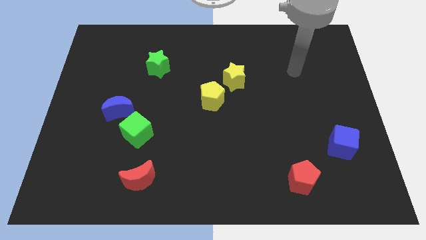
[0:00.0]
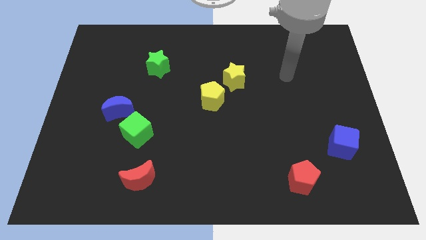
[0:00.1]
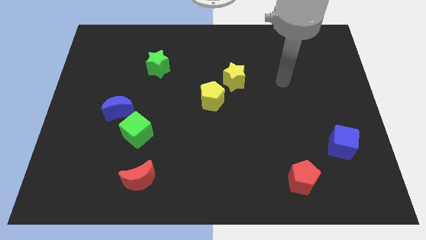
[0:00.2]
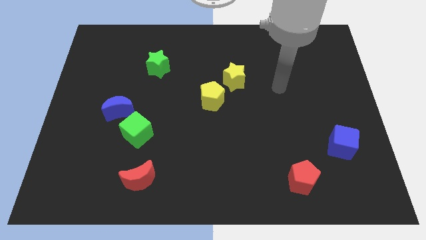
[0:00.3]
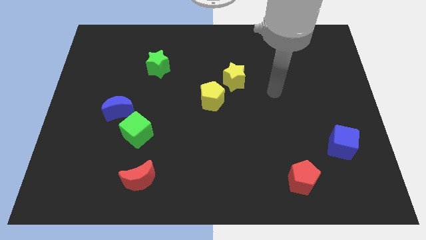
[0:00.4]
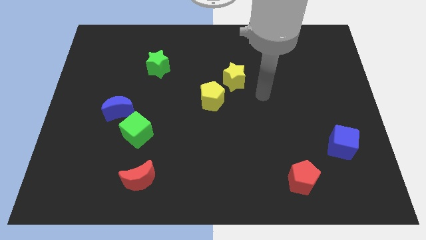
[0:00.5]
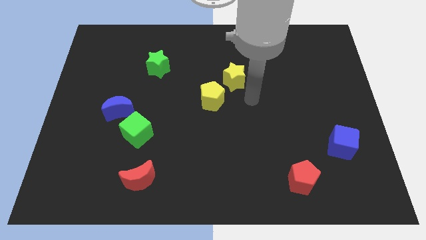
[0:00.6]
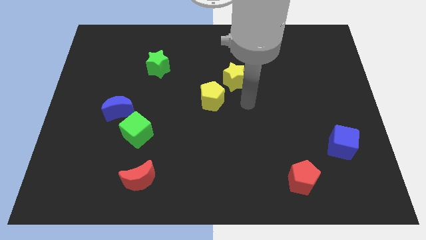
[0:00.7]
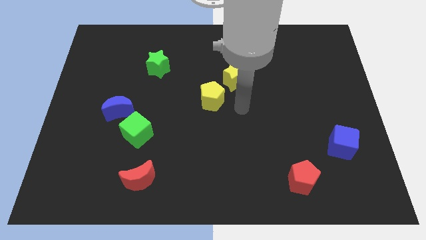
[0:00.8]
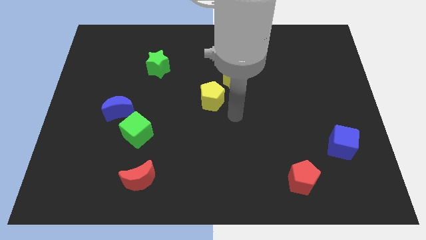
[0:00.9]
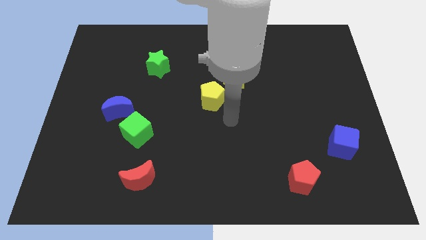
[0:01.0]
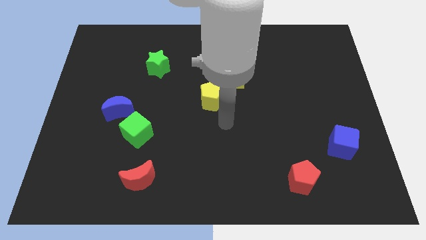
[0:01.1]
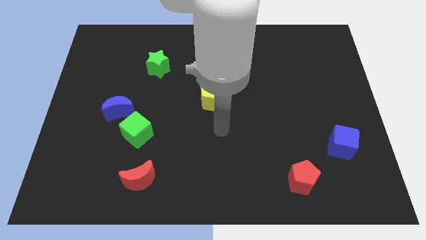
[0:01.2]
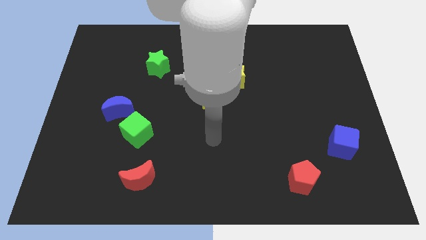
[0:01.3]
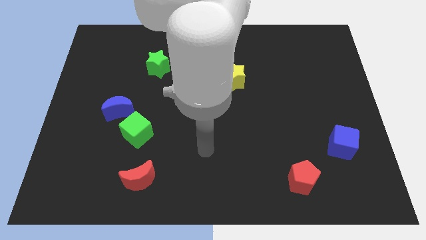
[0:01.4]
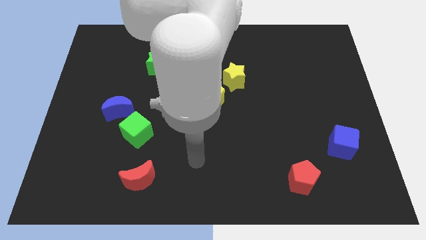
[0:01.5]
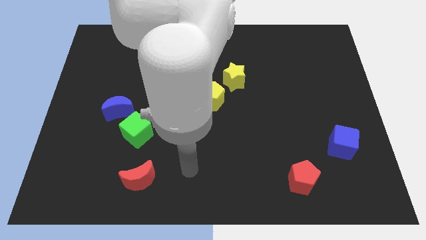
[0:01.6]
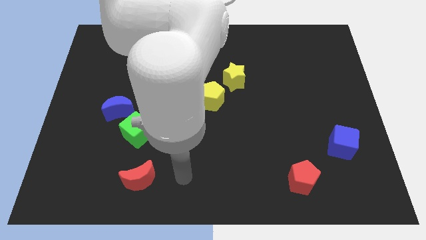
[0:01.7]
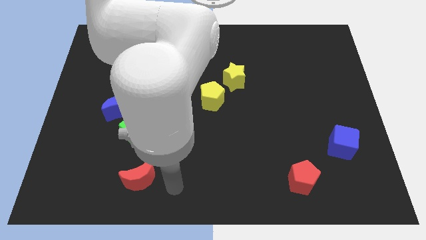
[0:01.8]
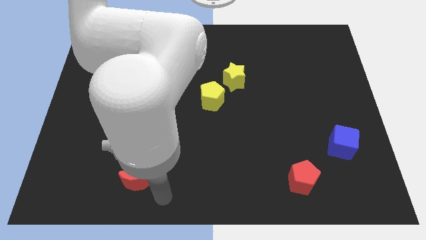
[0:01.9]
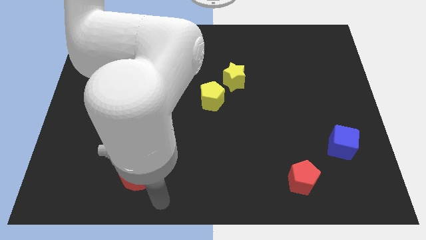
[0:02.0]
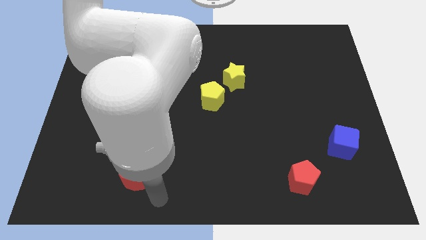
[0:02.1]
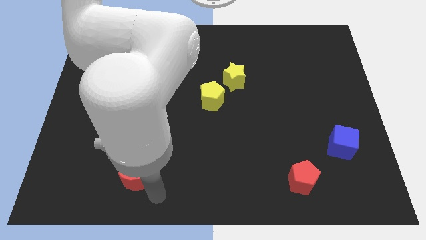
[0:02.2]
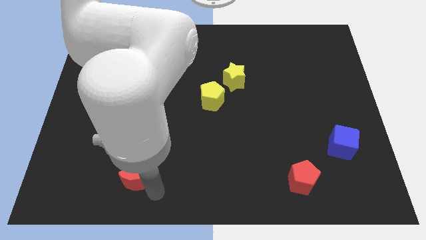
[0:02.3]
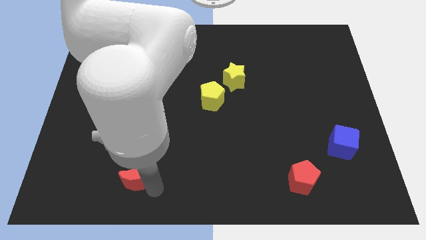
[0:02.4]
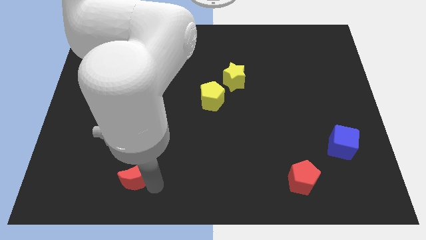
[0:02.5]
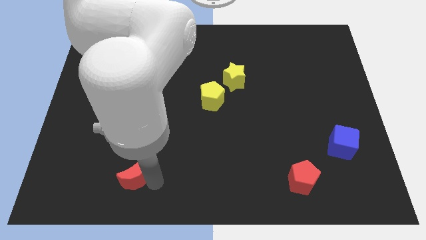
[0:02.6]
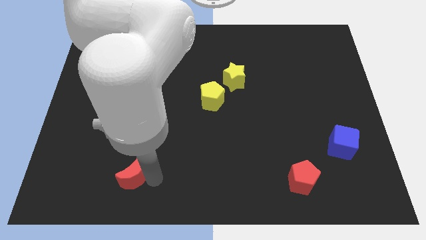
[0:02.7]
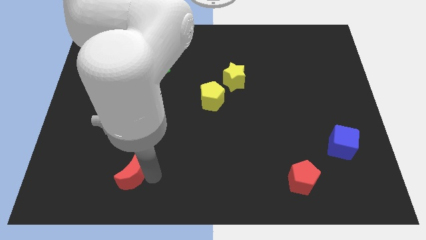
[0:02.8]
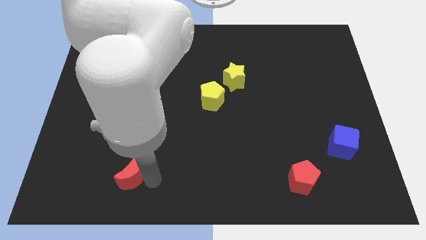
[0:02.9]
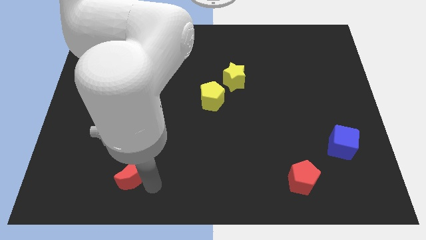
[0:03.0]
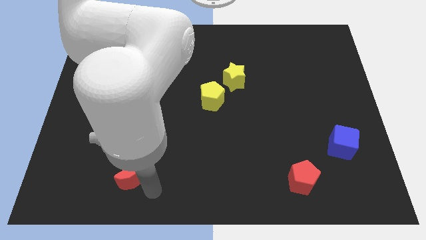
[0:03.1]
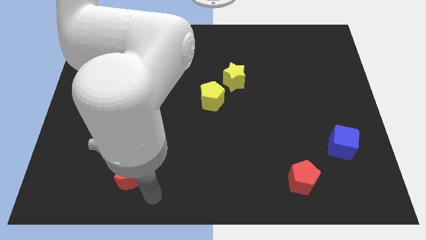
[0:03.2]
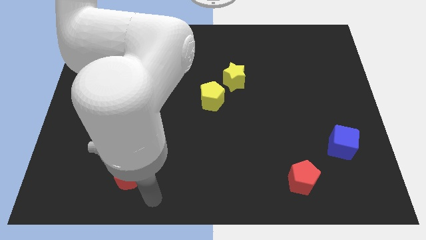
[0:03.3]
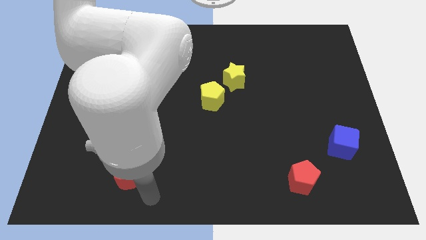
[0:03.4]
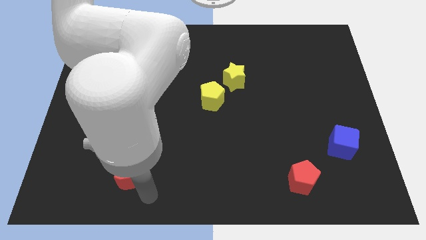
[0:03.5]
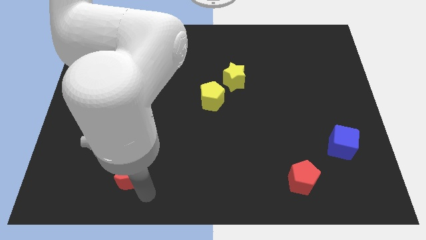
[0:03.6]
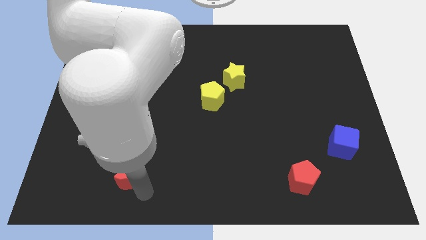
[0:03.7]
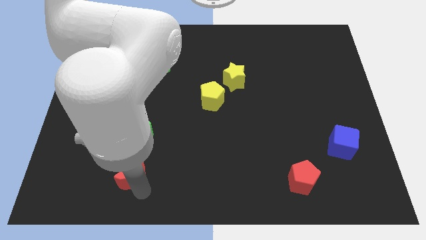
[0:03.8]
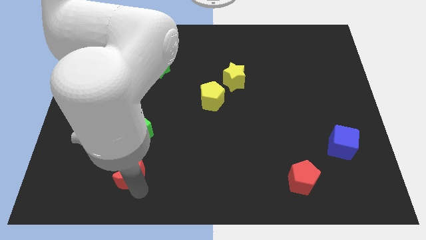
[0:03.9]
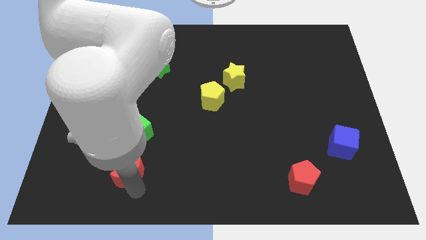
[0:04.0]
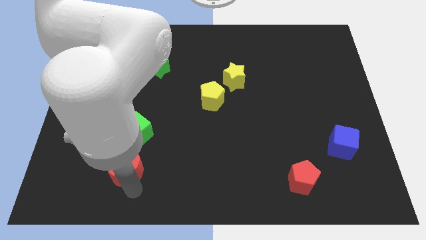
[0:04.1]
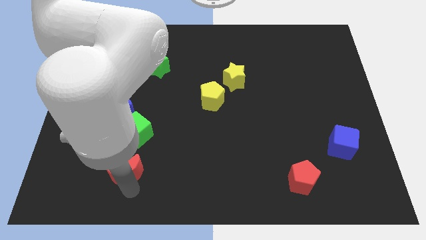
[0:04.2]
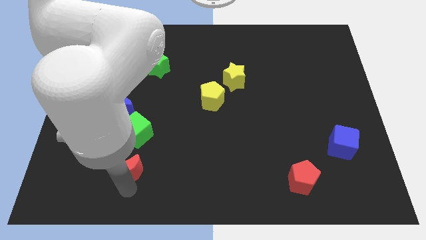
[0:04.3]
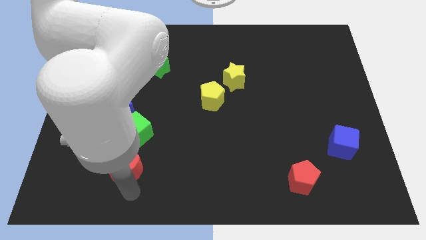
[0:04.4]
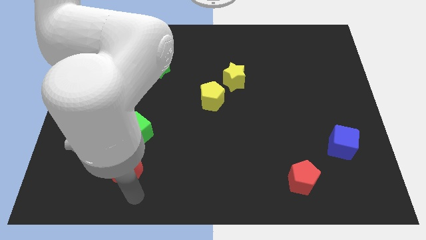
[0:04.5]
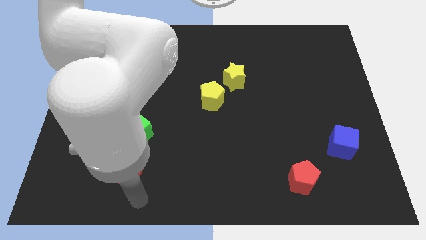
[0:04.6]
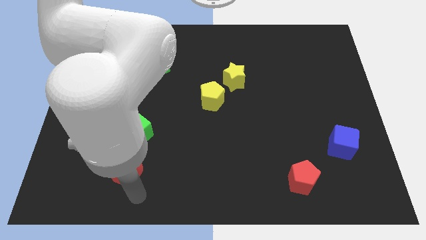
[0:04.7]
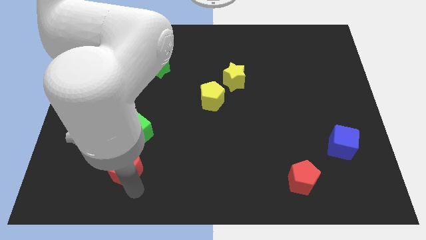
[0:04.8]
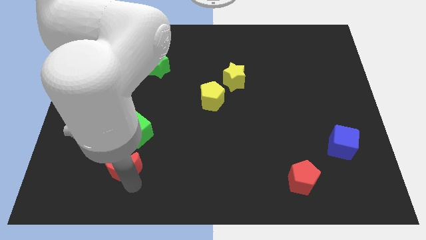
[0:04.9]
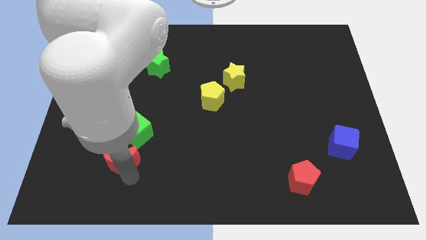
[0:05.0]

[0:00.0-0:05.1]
push the red moon to the bottom side of the blue moon

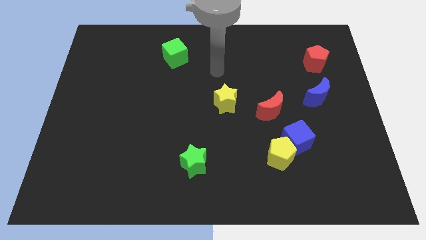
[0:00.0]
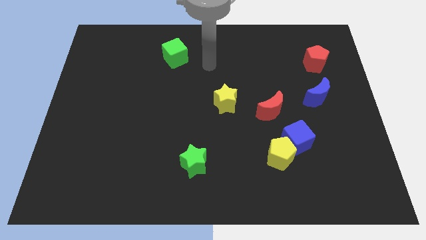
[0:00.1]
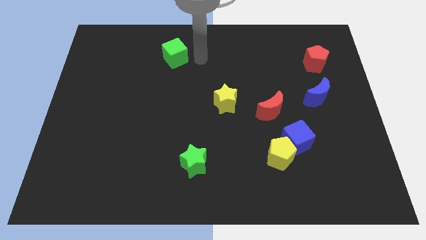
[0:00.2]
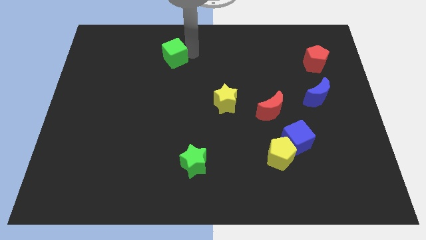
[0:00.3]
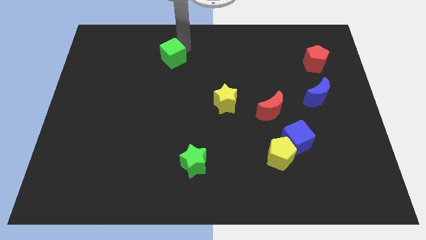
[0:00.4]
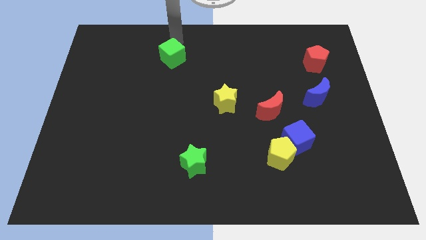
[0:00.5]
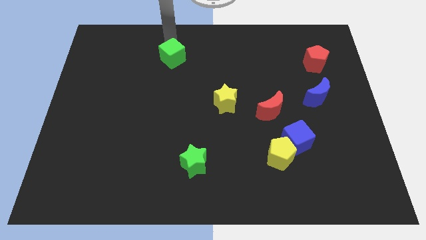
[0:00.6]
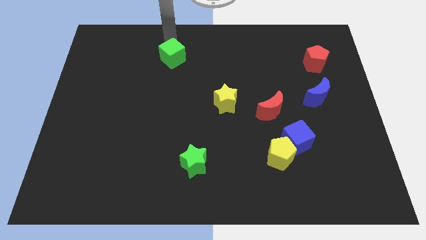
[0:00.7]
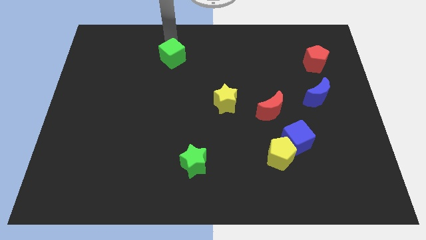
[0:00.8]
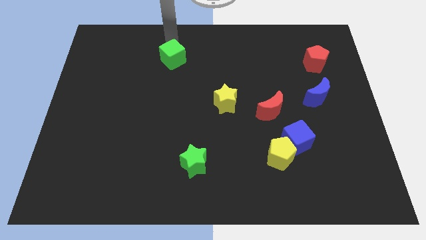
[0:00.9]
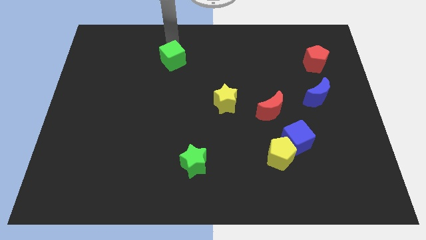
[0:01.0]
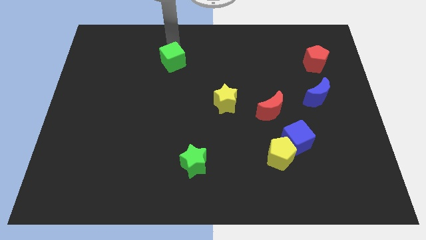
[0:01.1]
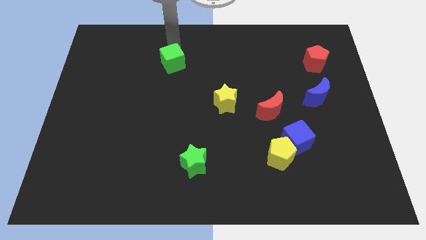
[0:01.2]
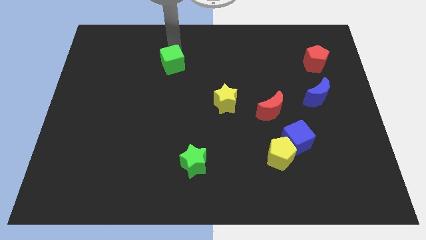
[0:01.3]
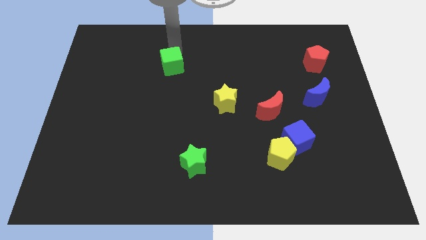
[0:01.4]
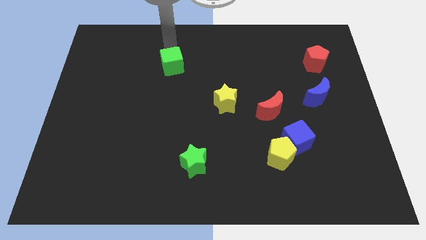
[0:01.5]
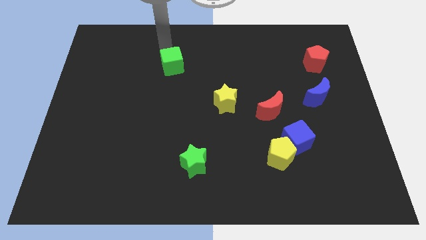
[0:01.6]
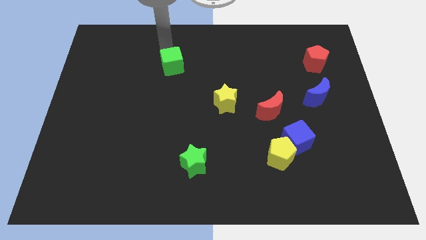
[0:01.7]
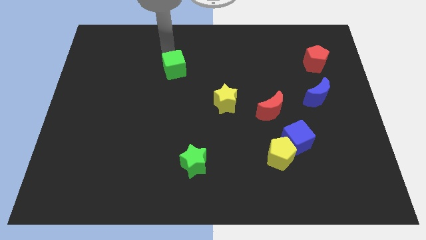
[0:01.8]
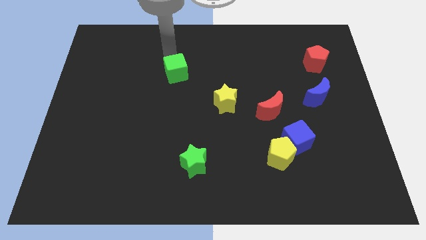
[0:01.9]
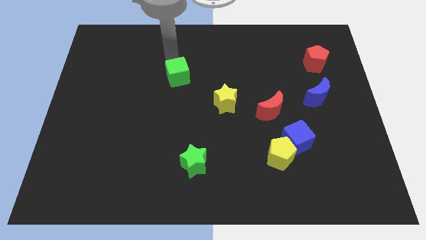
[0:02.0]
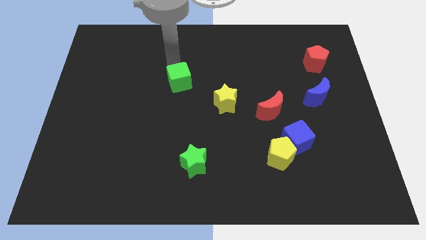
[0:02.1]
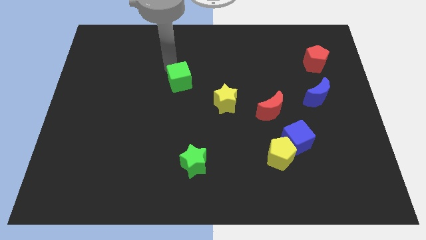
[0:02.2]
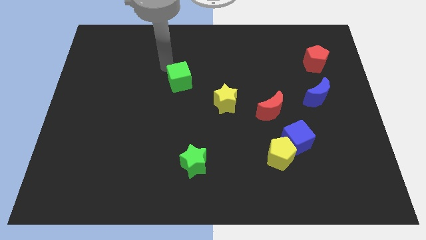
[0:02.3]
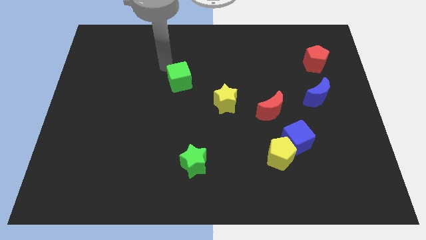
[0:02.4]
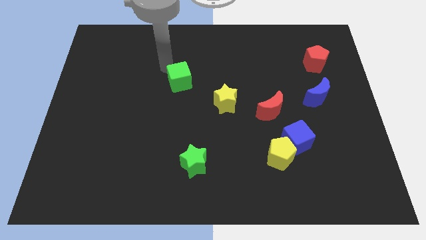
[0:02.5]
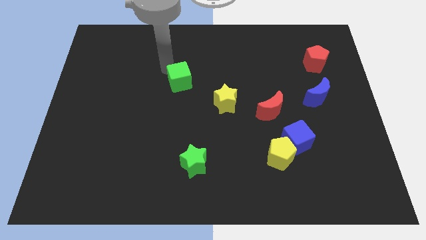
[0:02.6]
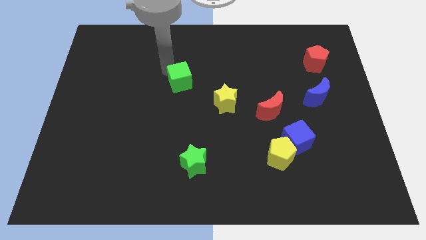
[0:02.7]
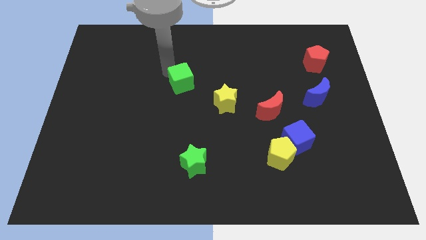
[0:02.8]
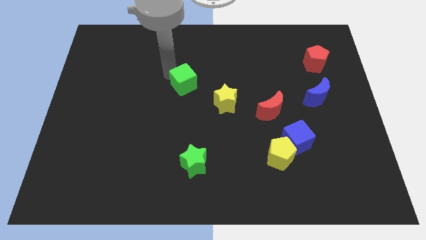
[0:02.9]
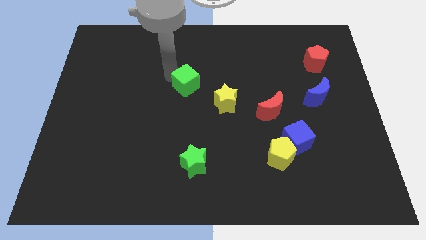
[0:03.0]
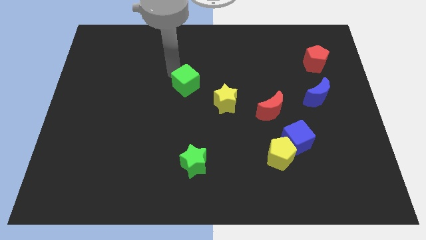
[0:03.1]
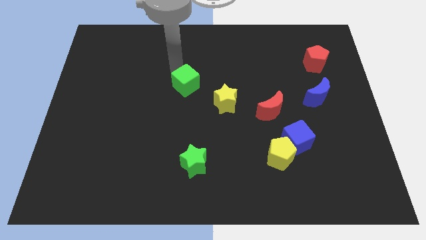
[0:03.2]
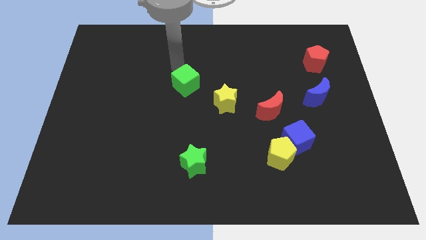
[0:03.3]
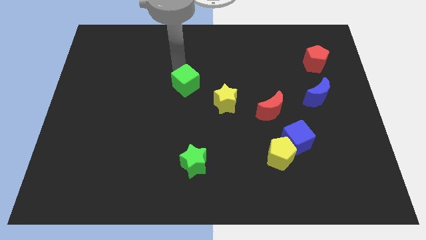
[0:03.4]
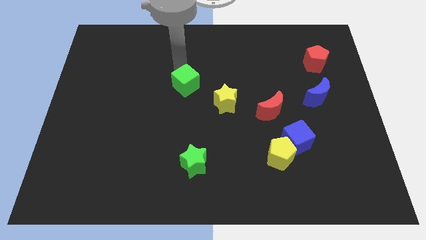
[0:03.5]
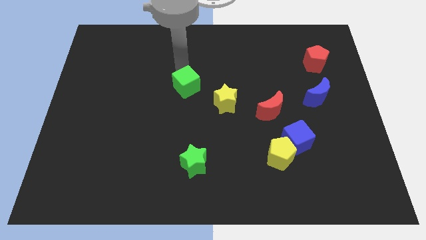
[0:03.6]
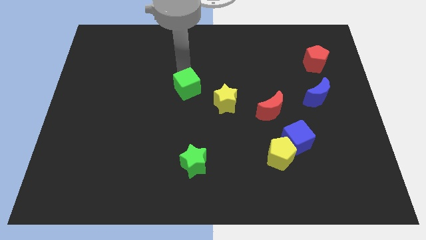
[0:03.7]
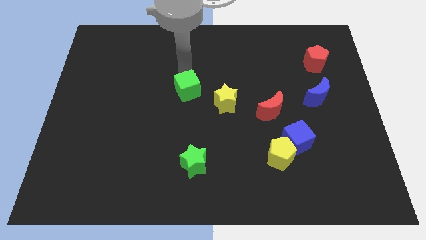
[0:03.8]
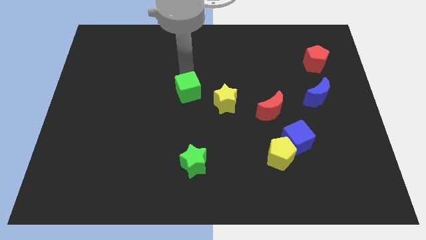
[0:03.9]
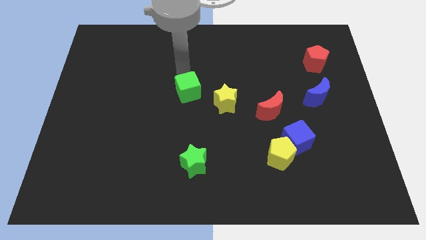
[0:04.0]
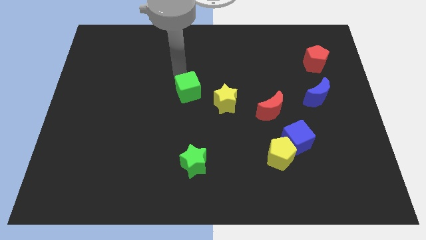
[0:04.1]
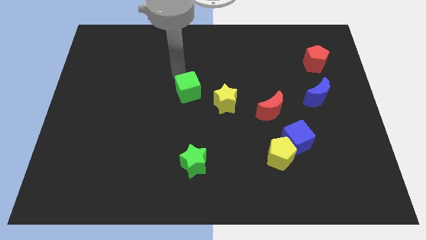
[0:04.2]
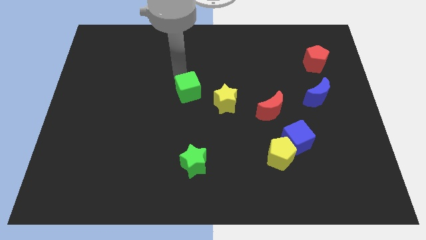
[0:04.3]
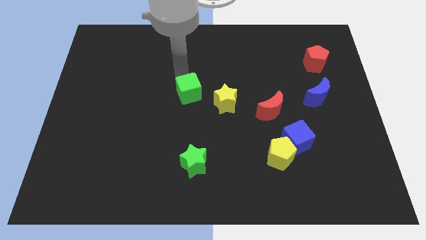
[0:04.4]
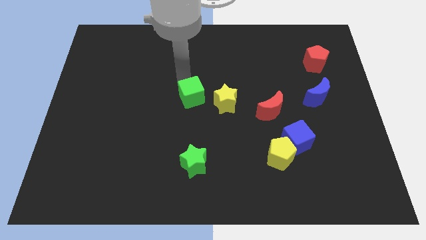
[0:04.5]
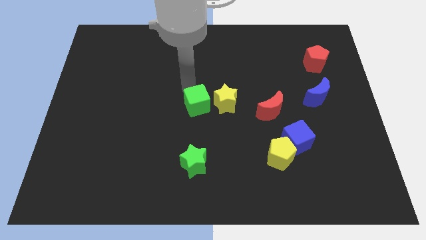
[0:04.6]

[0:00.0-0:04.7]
slide the green cube to the top of the green star
